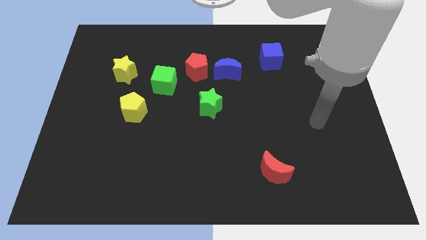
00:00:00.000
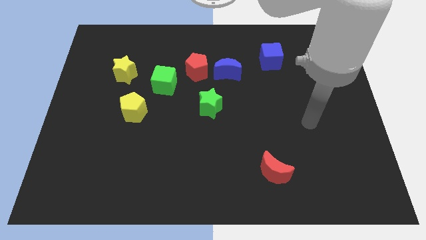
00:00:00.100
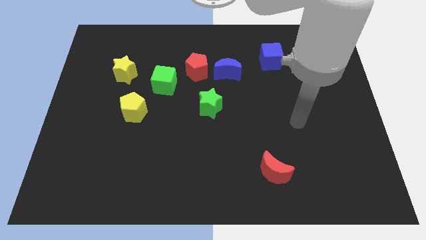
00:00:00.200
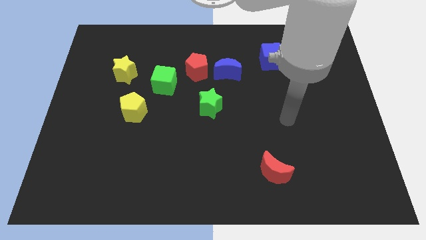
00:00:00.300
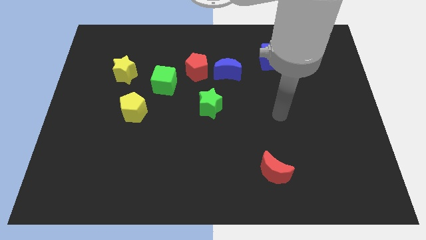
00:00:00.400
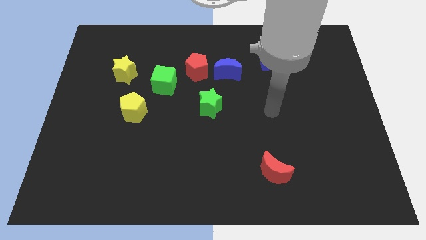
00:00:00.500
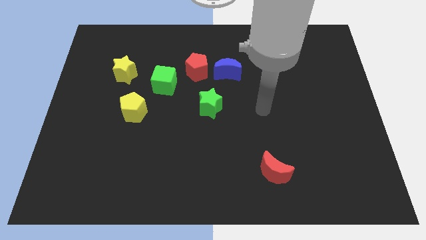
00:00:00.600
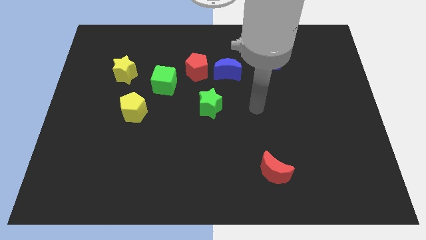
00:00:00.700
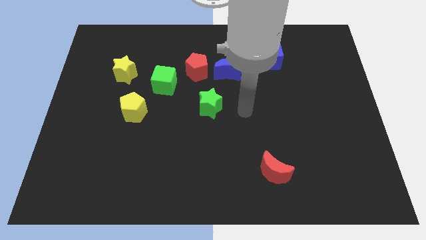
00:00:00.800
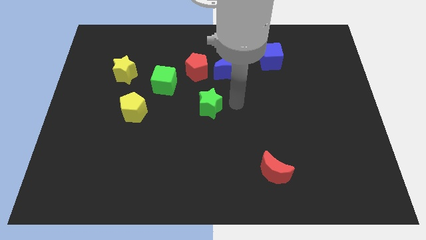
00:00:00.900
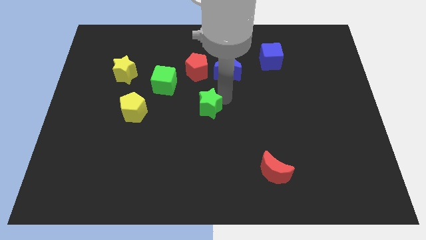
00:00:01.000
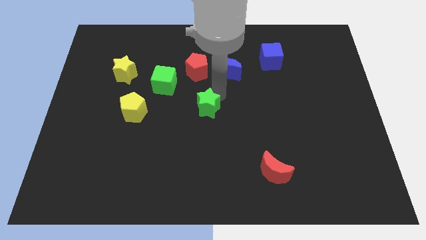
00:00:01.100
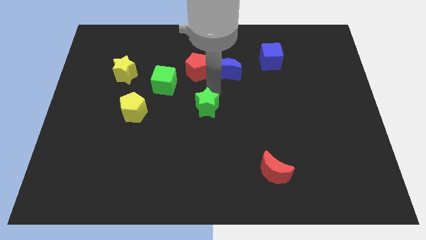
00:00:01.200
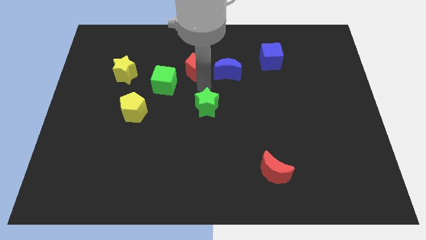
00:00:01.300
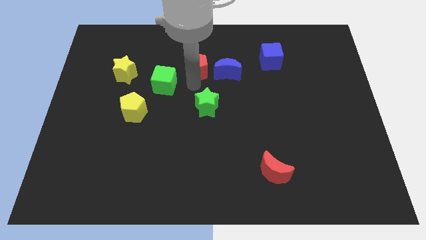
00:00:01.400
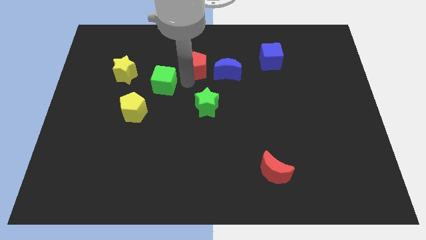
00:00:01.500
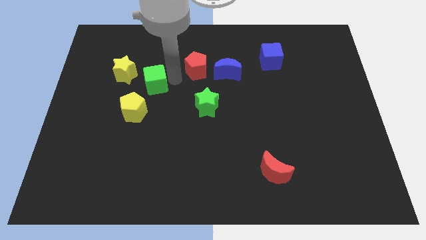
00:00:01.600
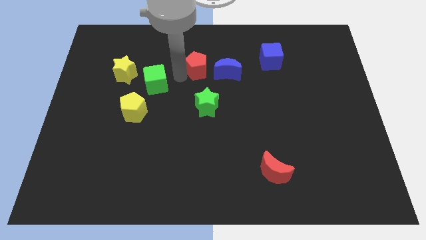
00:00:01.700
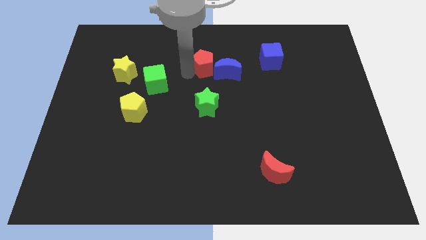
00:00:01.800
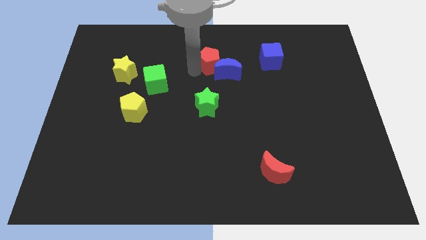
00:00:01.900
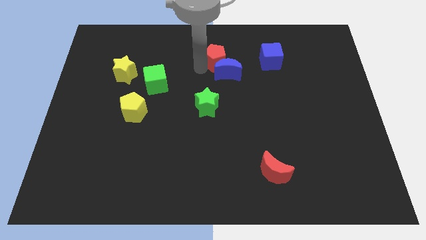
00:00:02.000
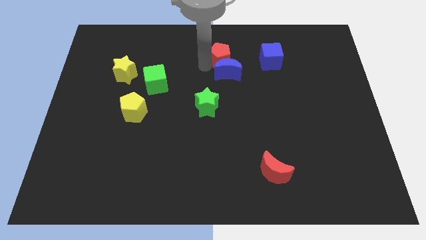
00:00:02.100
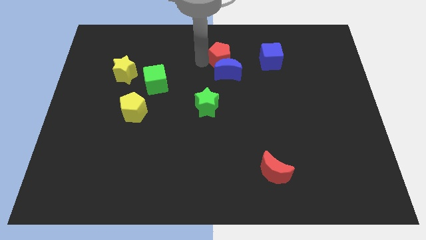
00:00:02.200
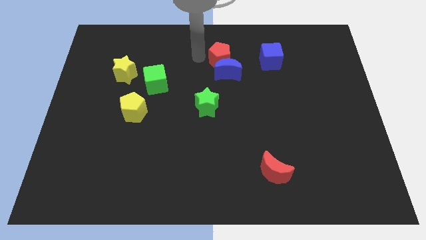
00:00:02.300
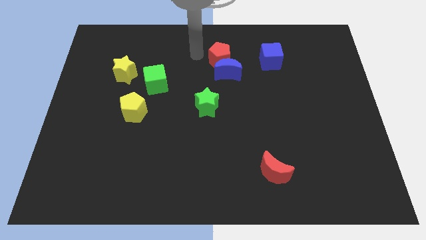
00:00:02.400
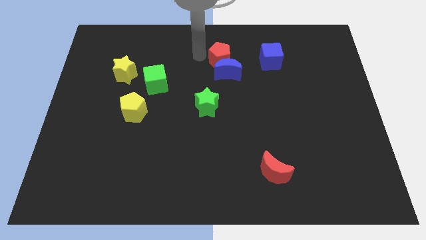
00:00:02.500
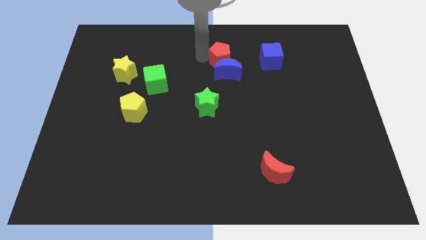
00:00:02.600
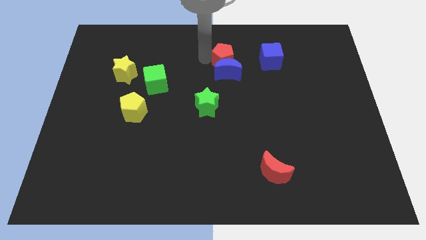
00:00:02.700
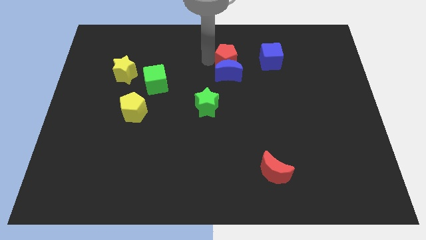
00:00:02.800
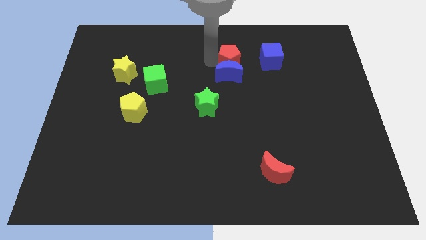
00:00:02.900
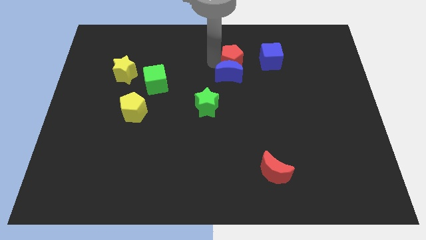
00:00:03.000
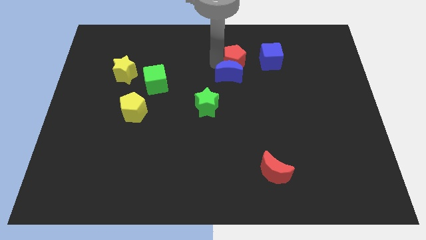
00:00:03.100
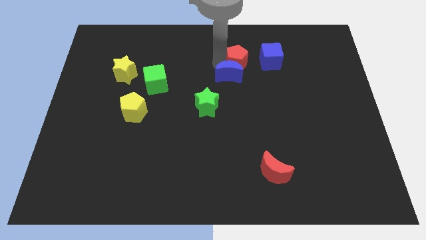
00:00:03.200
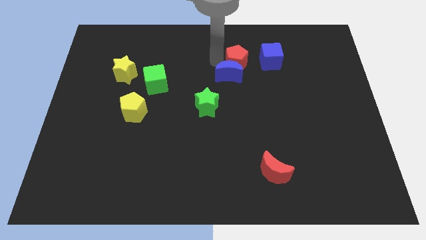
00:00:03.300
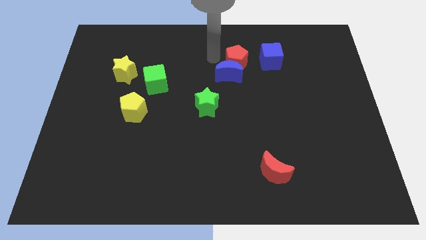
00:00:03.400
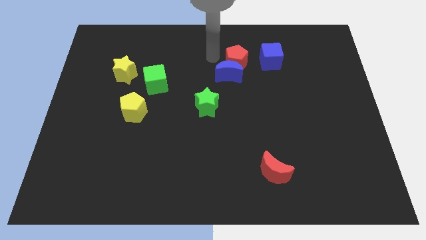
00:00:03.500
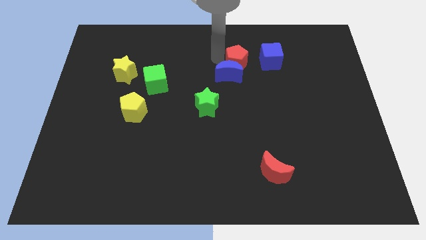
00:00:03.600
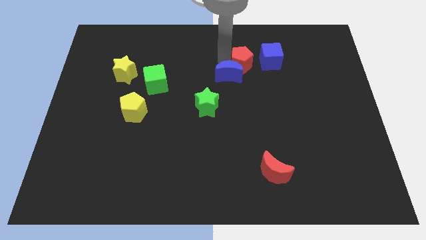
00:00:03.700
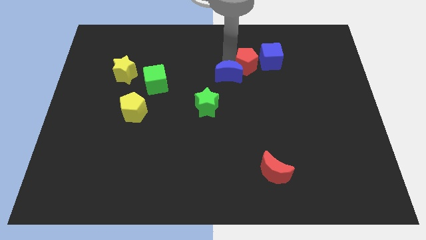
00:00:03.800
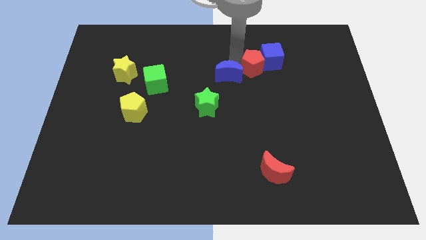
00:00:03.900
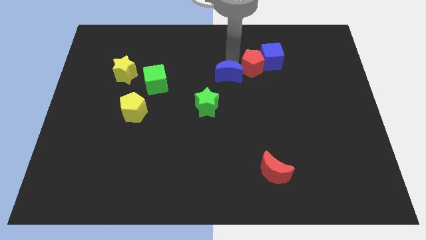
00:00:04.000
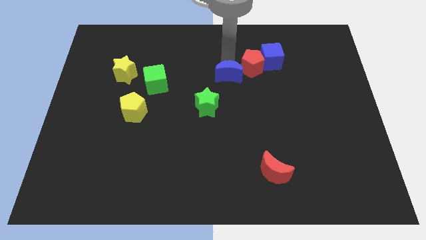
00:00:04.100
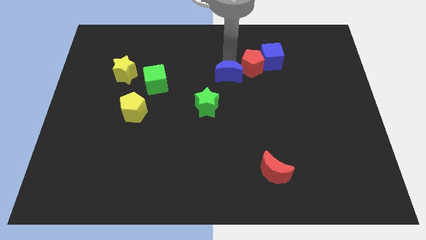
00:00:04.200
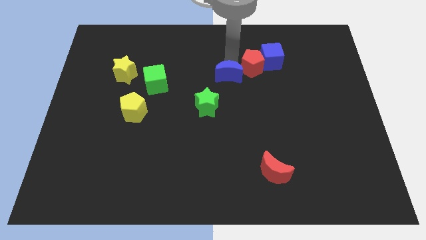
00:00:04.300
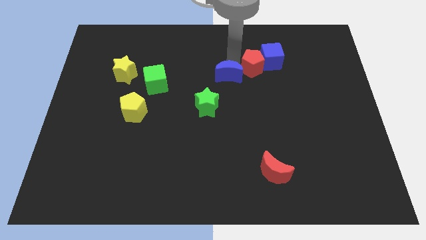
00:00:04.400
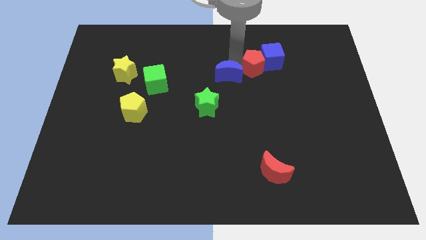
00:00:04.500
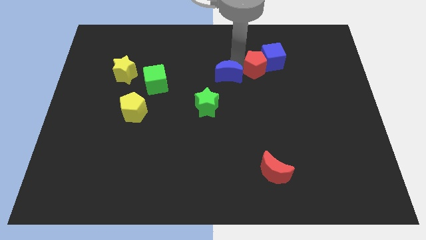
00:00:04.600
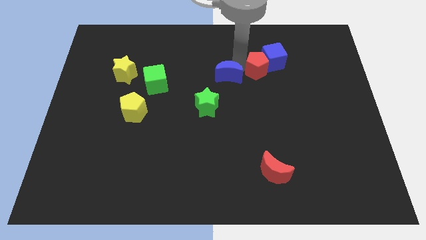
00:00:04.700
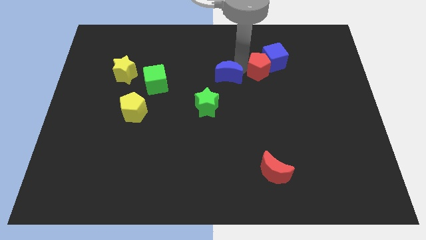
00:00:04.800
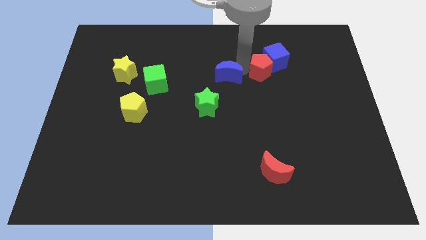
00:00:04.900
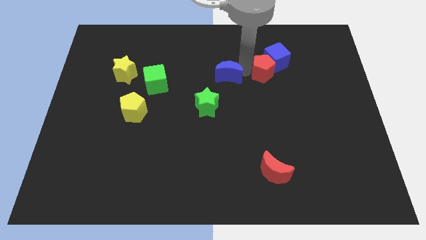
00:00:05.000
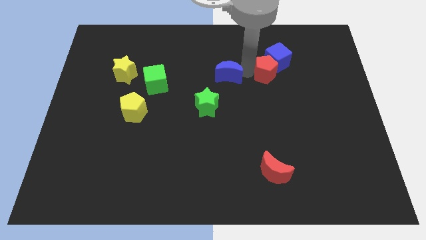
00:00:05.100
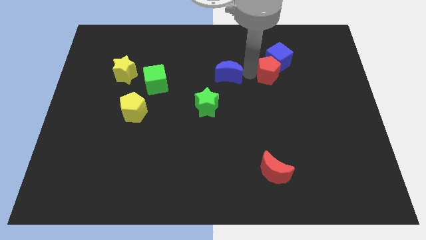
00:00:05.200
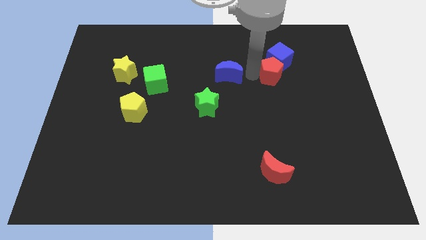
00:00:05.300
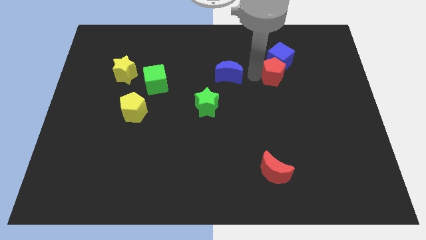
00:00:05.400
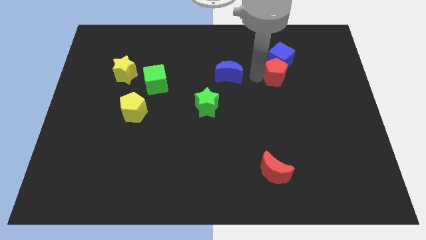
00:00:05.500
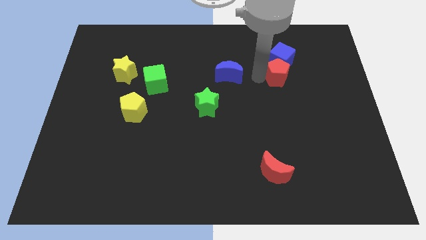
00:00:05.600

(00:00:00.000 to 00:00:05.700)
push the red pentagon right

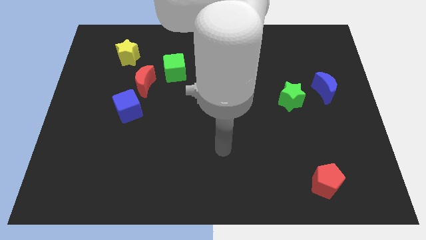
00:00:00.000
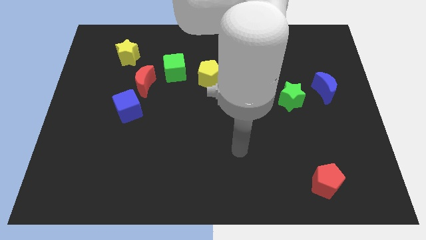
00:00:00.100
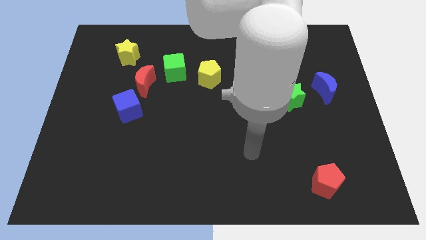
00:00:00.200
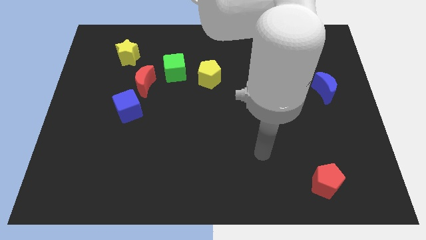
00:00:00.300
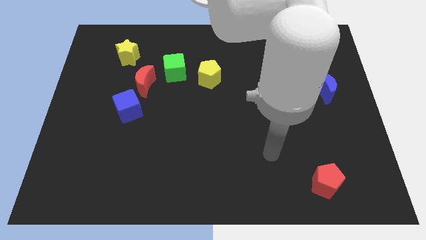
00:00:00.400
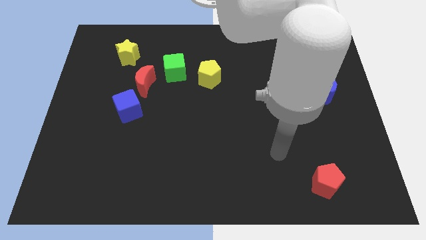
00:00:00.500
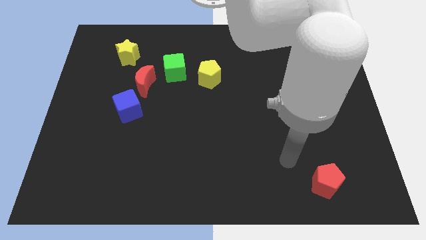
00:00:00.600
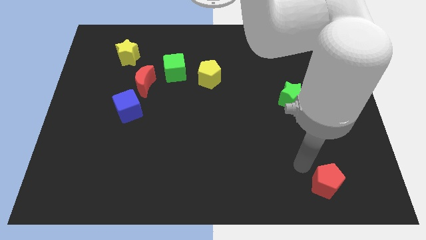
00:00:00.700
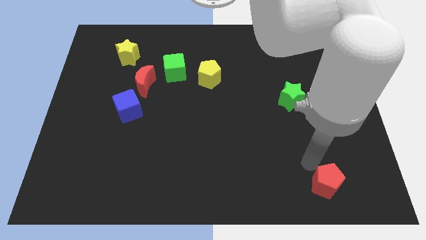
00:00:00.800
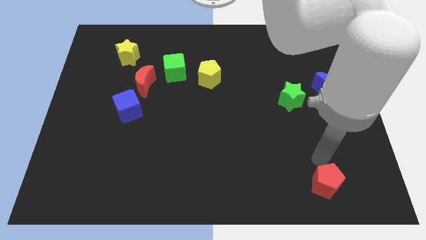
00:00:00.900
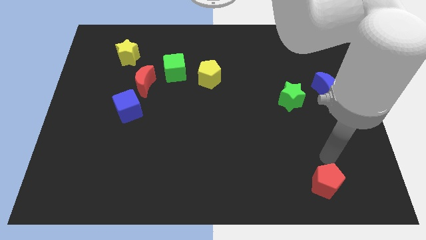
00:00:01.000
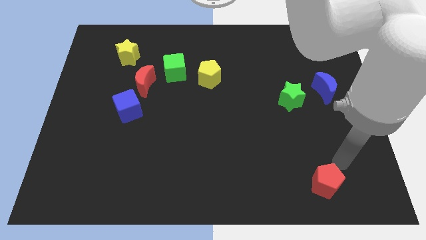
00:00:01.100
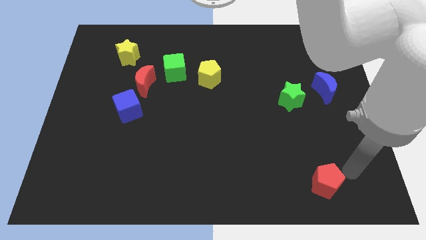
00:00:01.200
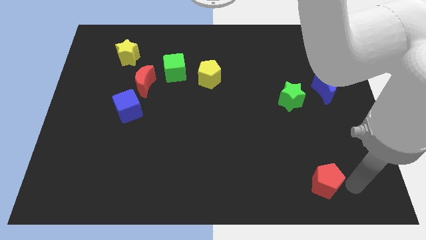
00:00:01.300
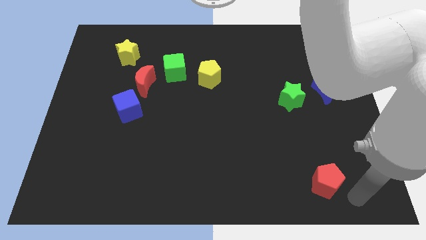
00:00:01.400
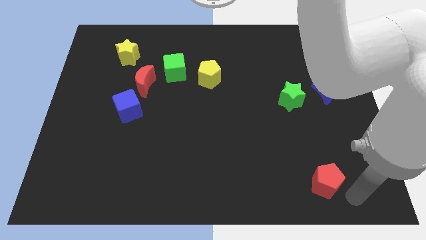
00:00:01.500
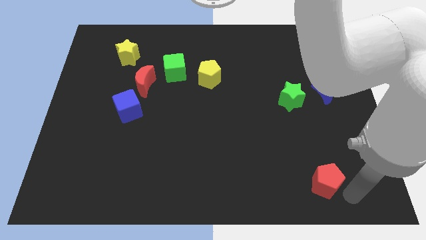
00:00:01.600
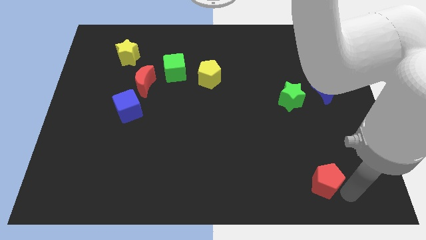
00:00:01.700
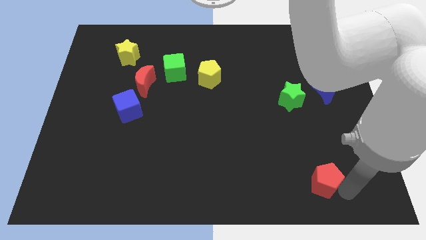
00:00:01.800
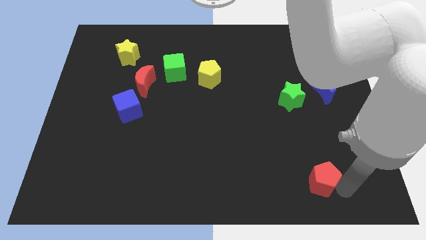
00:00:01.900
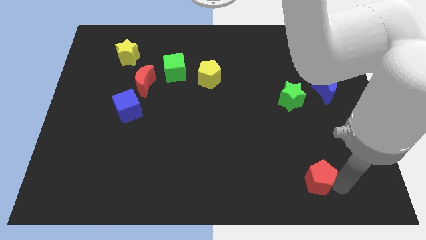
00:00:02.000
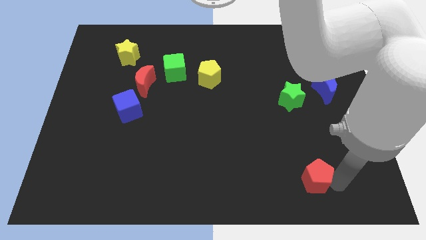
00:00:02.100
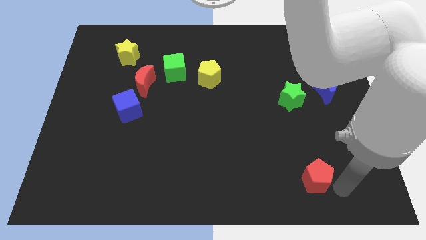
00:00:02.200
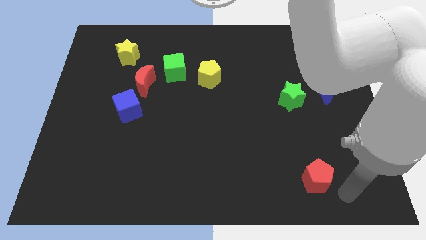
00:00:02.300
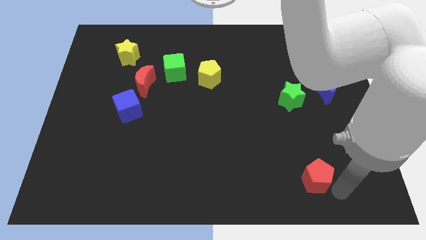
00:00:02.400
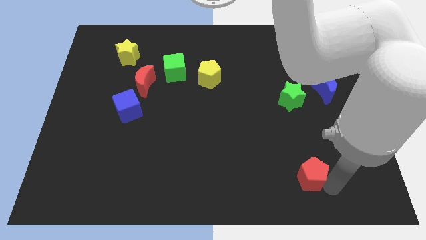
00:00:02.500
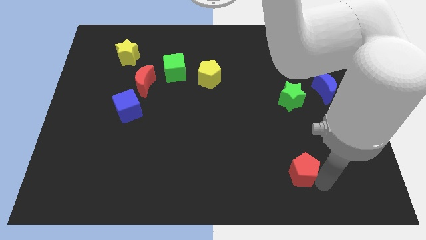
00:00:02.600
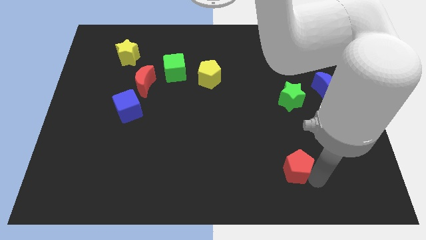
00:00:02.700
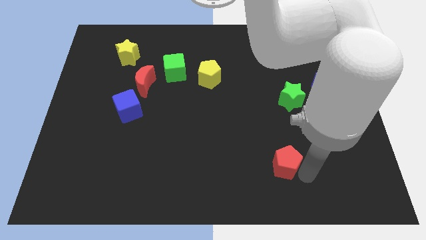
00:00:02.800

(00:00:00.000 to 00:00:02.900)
slide the red pentagon up and then left a little
